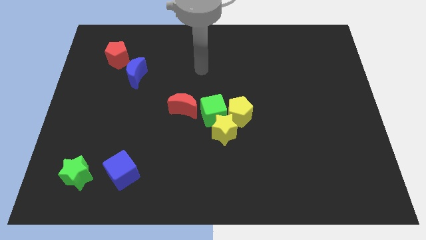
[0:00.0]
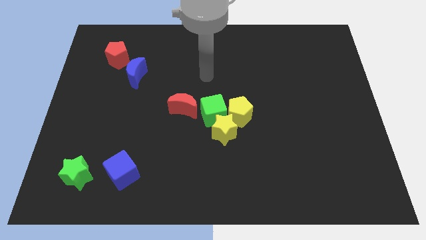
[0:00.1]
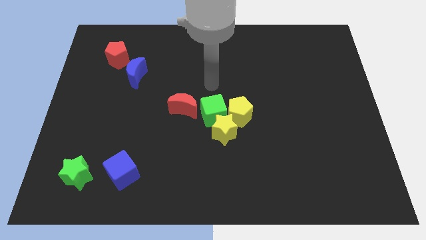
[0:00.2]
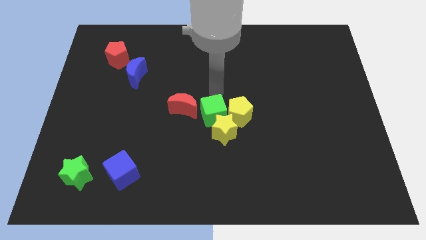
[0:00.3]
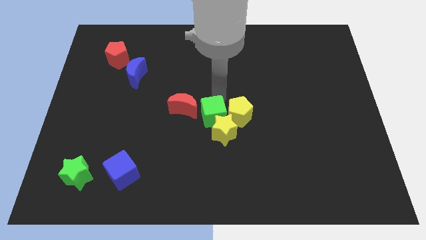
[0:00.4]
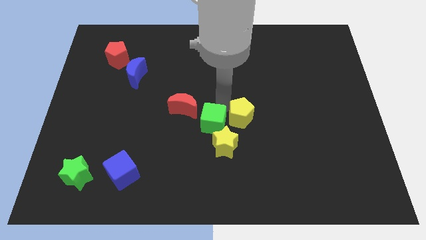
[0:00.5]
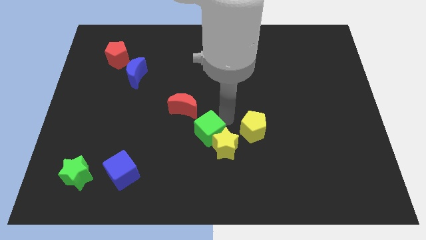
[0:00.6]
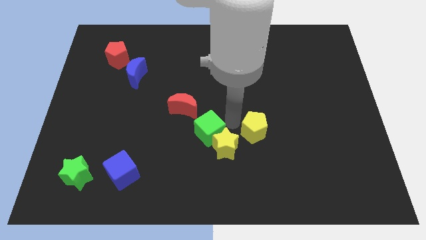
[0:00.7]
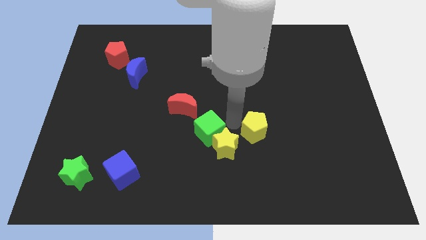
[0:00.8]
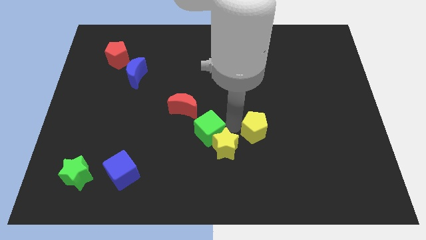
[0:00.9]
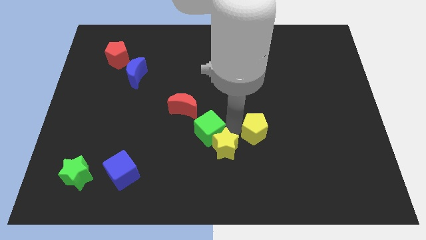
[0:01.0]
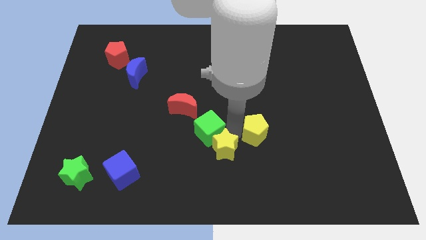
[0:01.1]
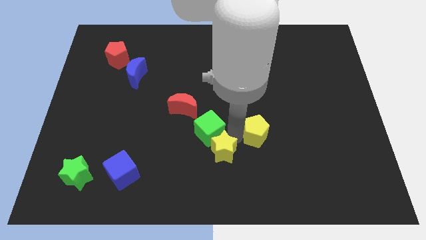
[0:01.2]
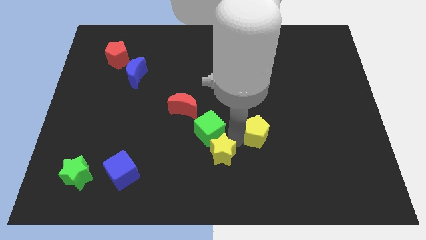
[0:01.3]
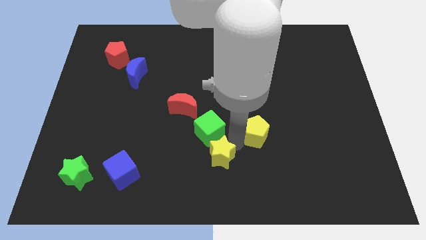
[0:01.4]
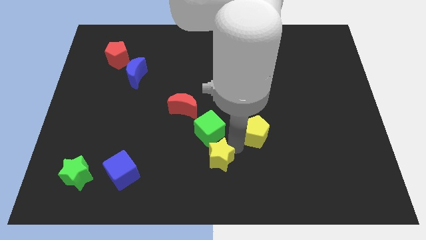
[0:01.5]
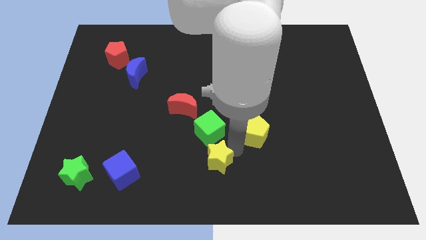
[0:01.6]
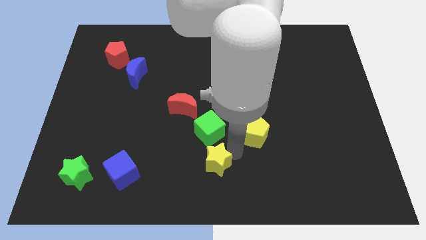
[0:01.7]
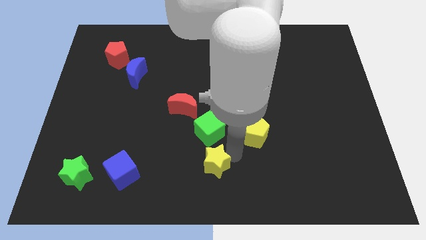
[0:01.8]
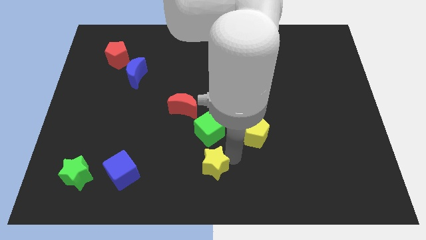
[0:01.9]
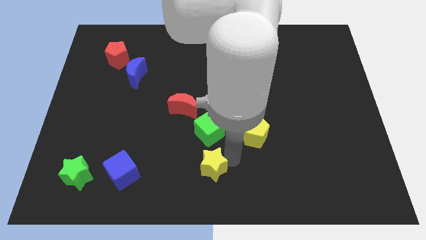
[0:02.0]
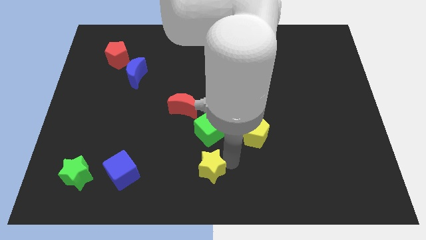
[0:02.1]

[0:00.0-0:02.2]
pull the yellow star apart from the green cube and yellow pentagon

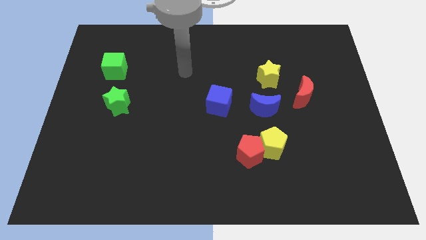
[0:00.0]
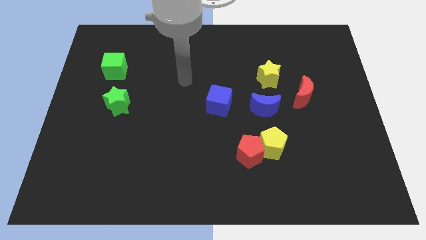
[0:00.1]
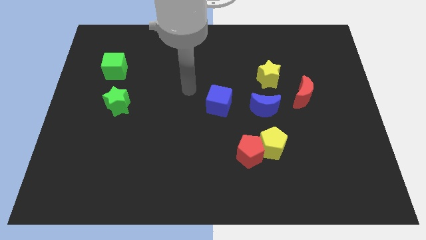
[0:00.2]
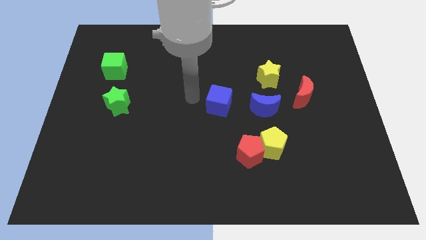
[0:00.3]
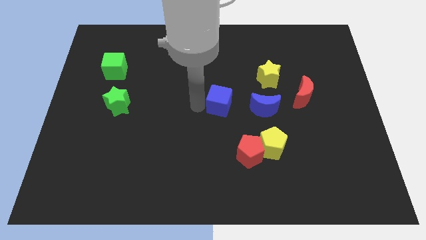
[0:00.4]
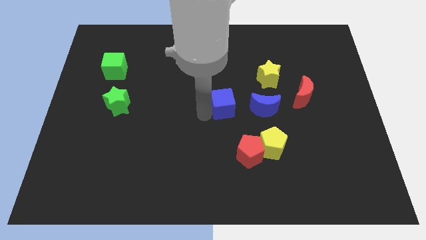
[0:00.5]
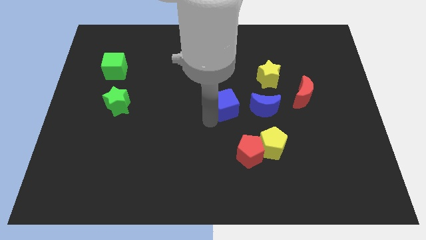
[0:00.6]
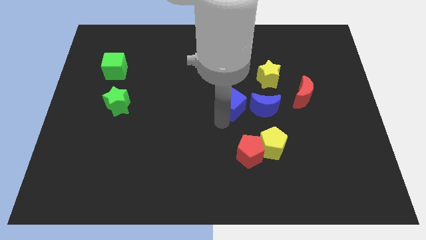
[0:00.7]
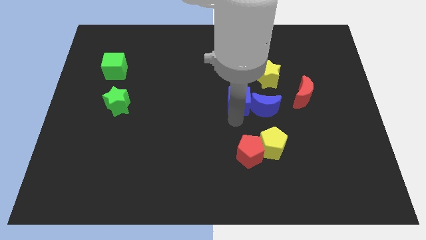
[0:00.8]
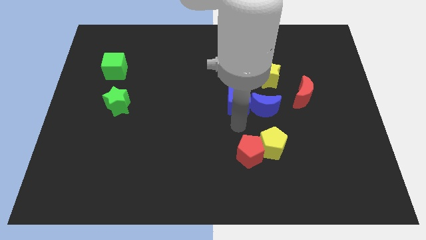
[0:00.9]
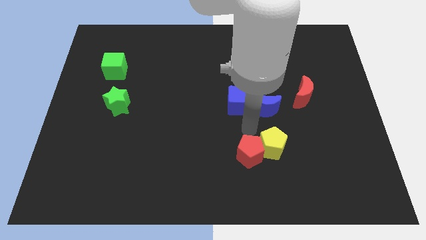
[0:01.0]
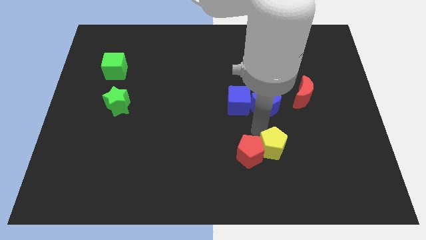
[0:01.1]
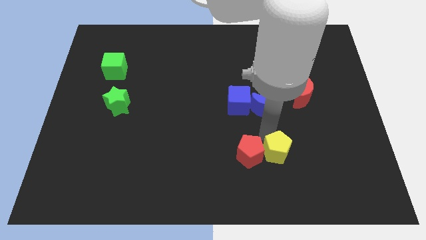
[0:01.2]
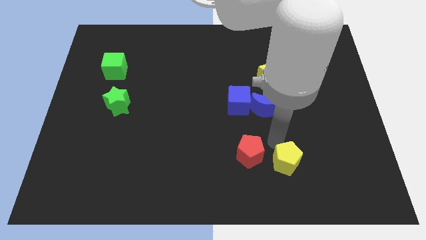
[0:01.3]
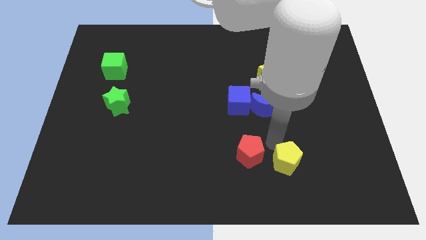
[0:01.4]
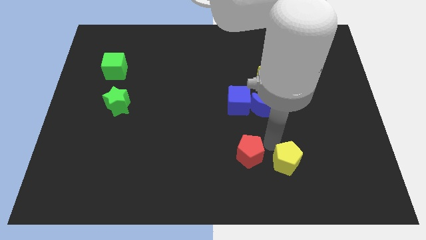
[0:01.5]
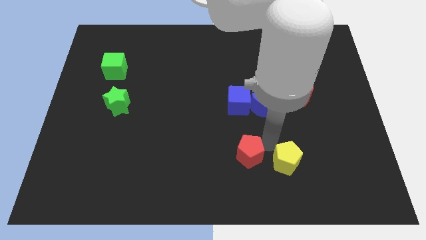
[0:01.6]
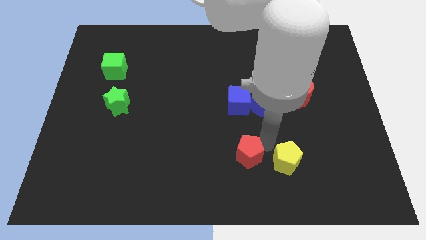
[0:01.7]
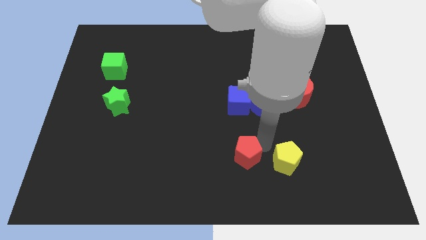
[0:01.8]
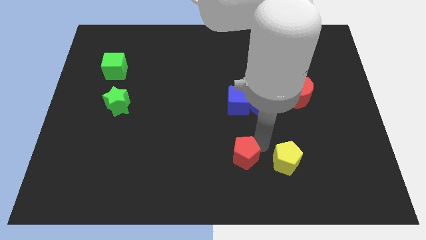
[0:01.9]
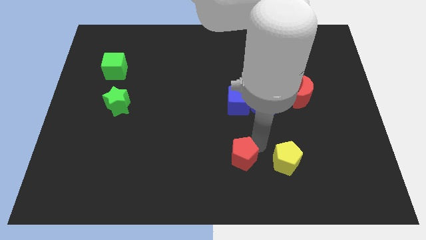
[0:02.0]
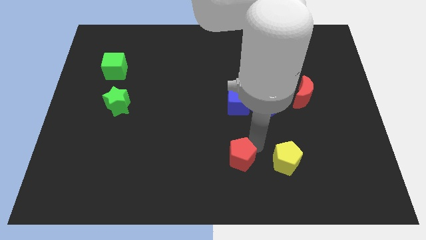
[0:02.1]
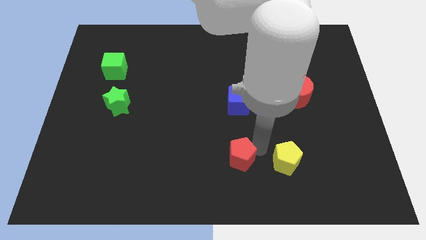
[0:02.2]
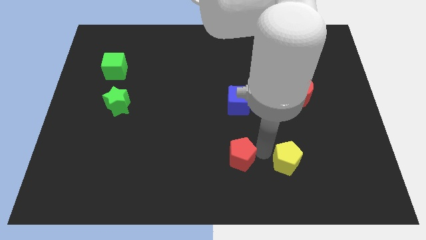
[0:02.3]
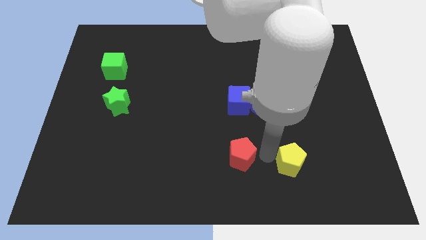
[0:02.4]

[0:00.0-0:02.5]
pull the red pentagon apart from the yellow pentagon

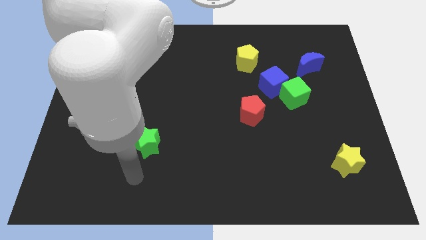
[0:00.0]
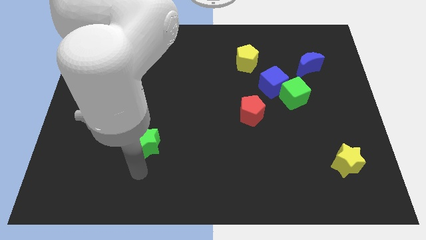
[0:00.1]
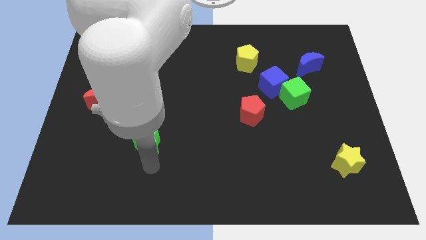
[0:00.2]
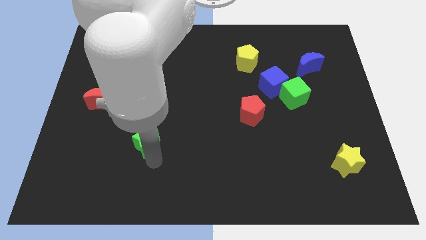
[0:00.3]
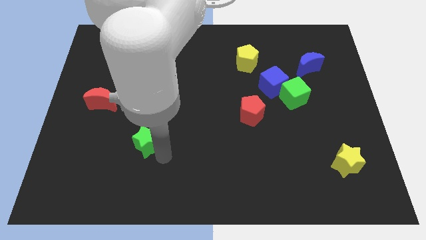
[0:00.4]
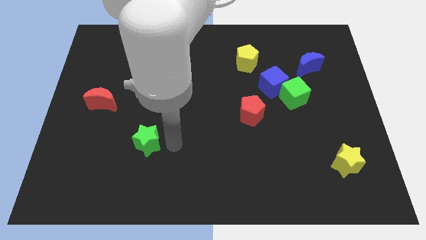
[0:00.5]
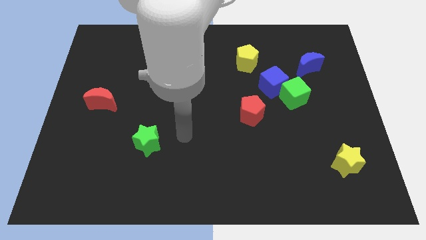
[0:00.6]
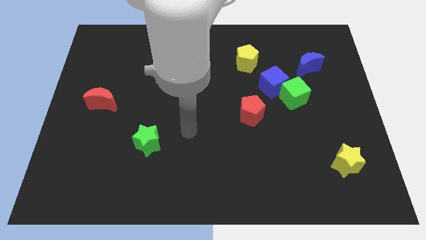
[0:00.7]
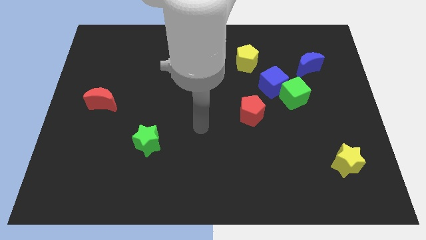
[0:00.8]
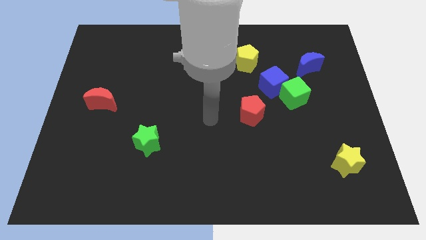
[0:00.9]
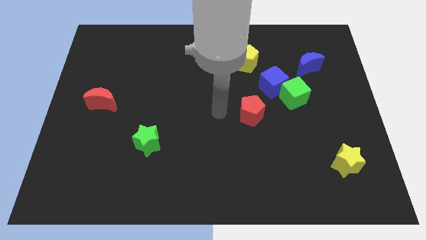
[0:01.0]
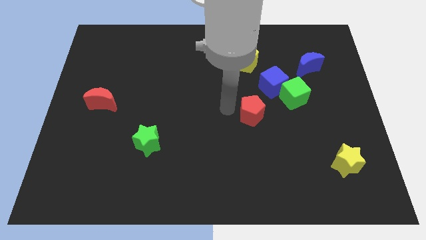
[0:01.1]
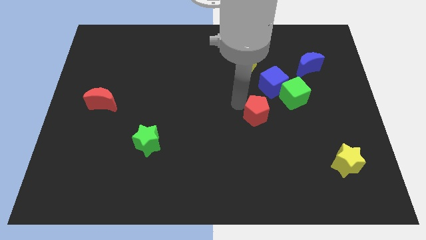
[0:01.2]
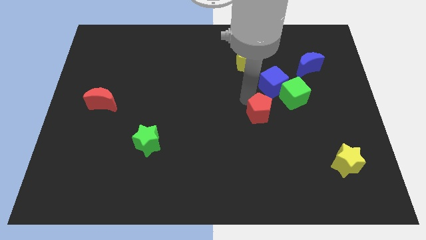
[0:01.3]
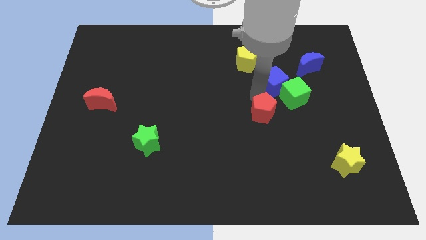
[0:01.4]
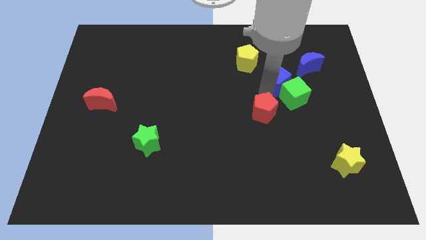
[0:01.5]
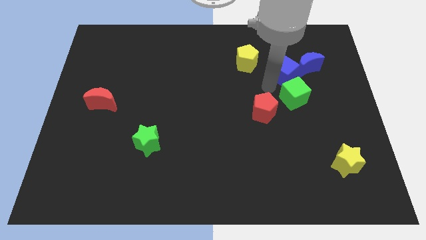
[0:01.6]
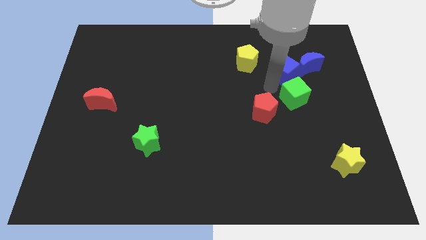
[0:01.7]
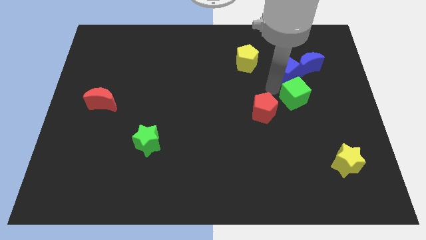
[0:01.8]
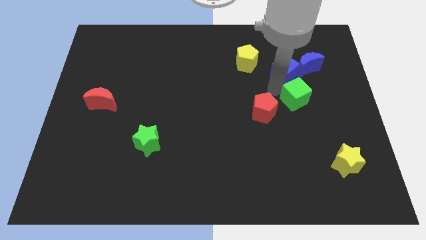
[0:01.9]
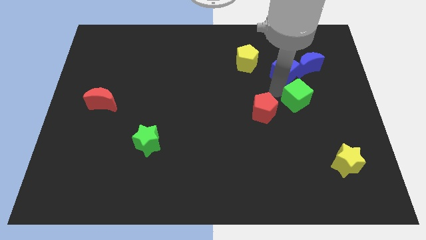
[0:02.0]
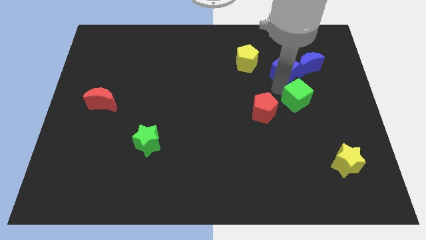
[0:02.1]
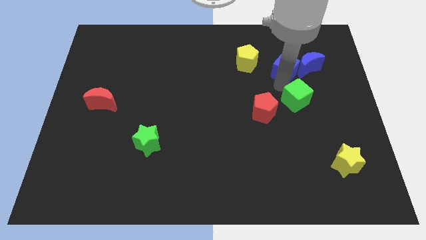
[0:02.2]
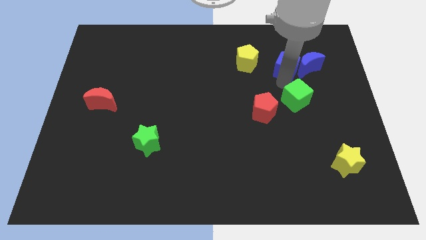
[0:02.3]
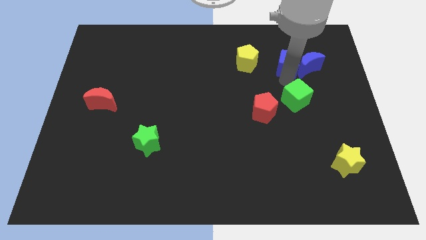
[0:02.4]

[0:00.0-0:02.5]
separate the green cube from the blue cube

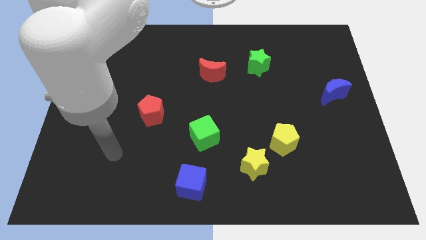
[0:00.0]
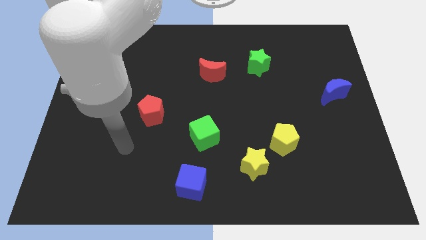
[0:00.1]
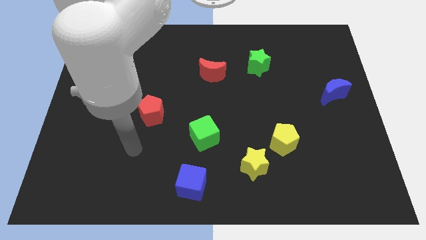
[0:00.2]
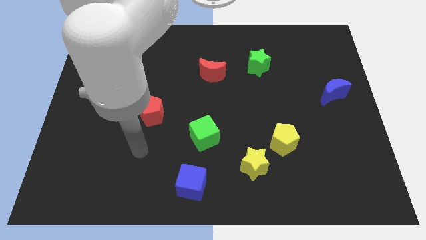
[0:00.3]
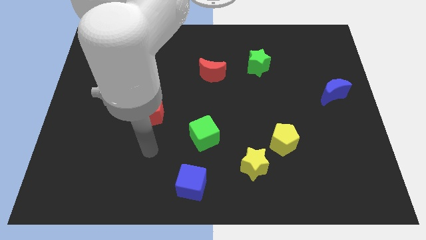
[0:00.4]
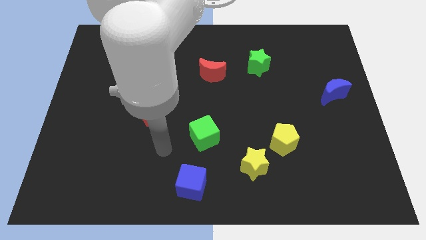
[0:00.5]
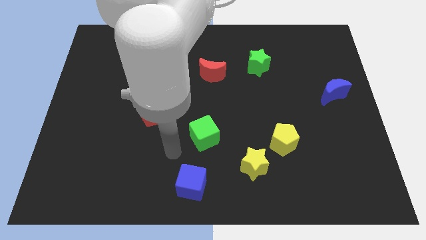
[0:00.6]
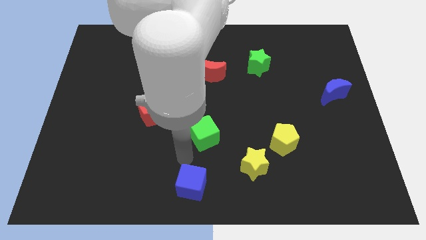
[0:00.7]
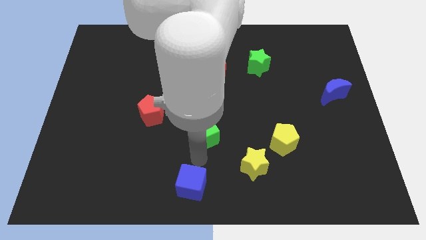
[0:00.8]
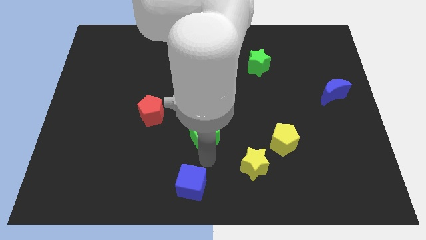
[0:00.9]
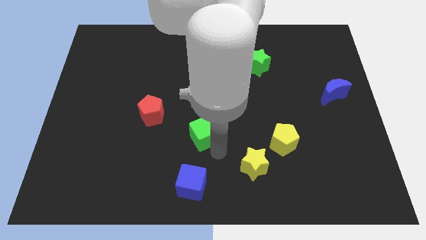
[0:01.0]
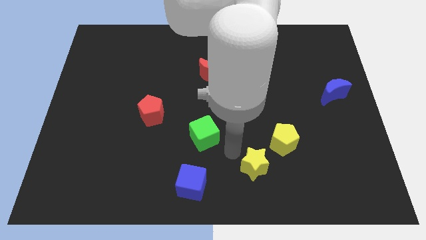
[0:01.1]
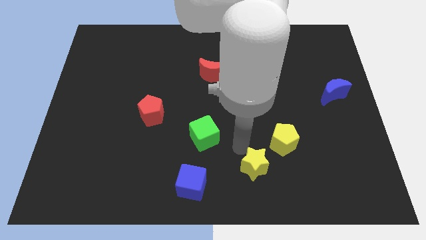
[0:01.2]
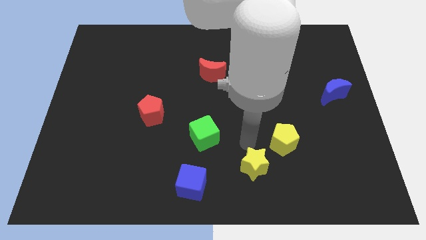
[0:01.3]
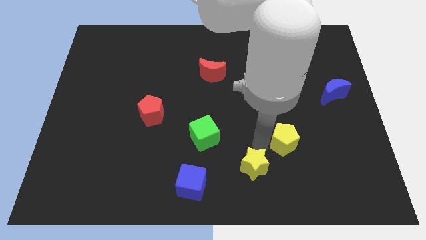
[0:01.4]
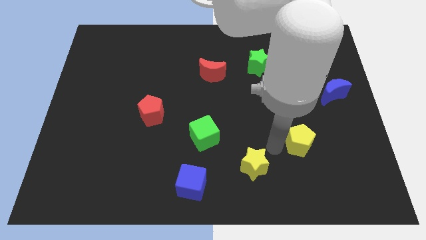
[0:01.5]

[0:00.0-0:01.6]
pull the yellow star apart from the yellow pentagon

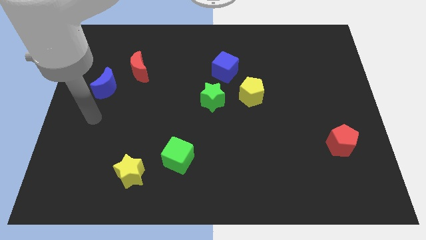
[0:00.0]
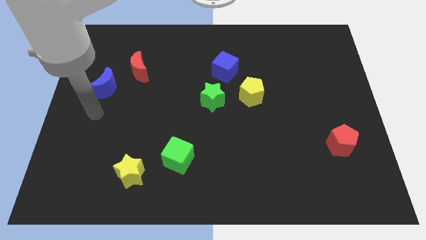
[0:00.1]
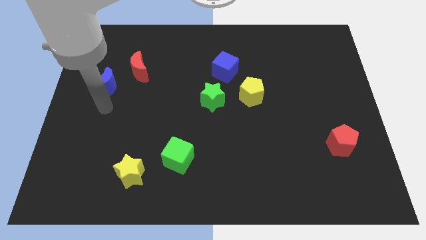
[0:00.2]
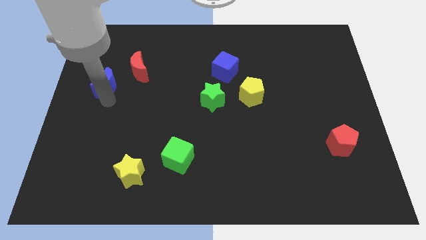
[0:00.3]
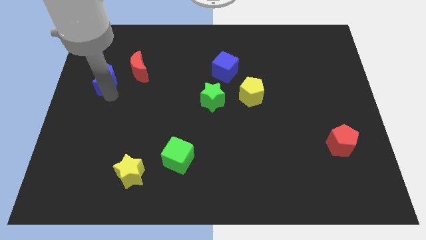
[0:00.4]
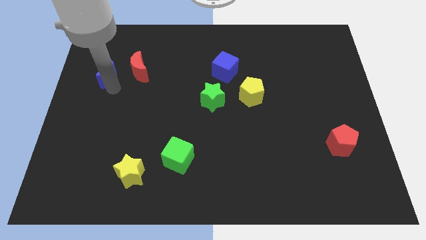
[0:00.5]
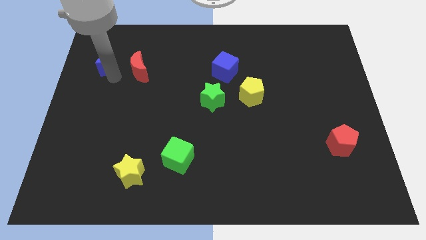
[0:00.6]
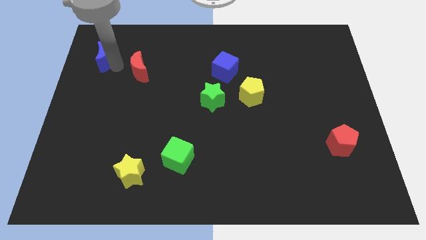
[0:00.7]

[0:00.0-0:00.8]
pull the red moon apart from the blue moon
